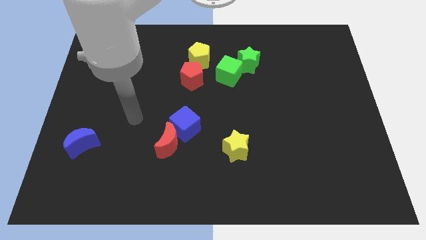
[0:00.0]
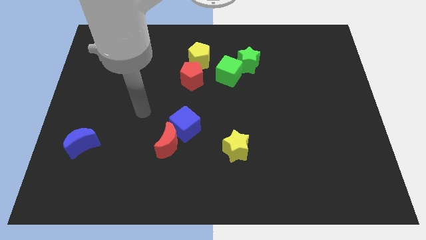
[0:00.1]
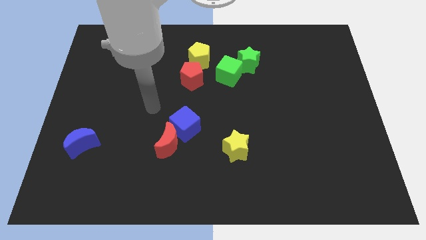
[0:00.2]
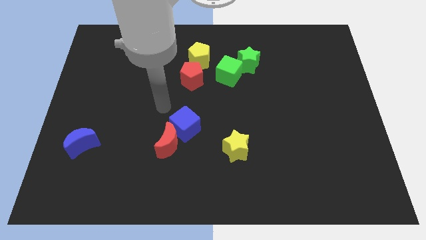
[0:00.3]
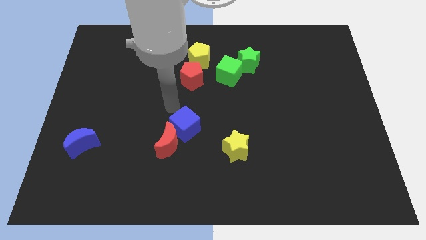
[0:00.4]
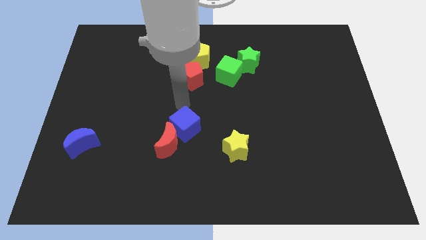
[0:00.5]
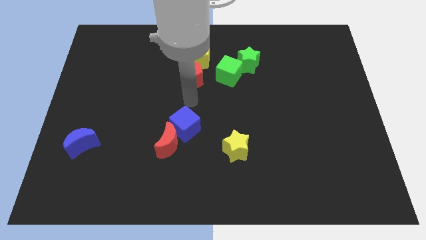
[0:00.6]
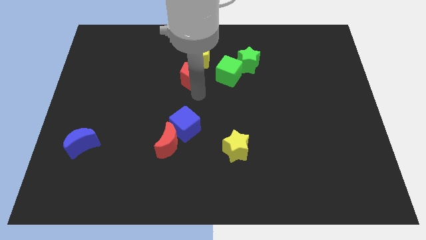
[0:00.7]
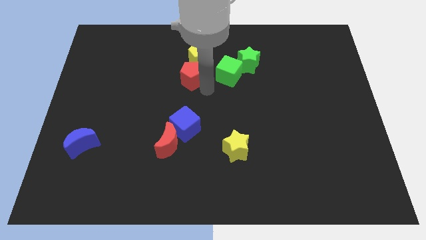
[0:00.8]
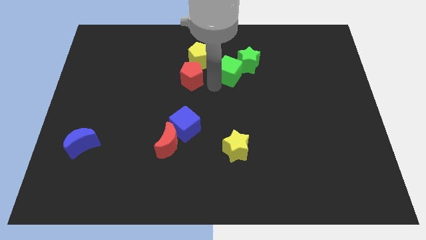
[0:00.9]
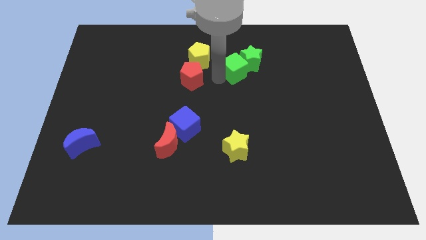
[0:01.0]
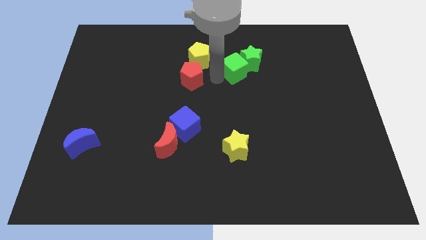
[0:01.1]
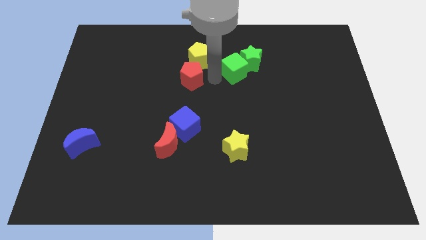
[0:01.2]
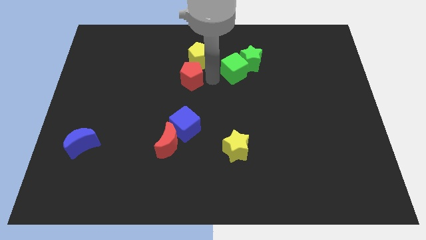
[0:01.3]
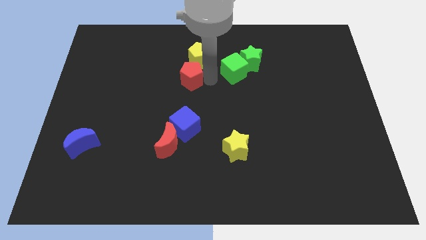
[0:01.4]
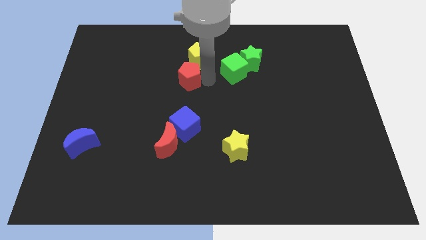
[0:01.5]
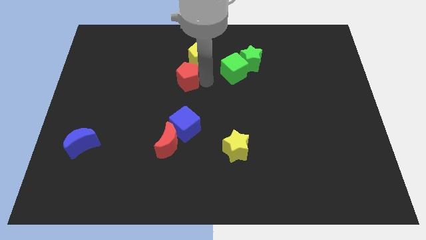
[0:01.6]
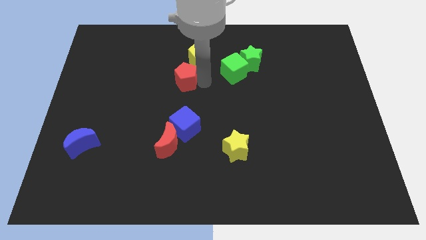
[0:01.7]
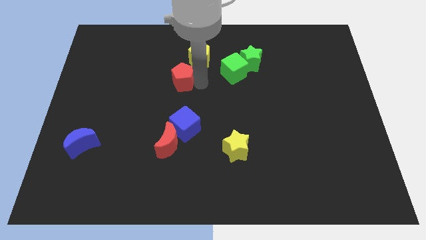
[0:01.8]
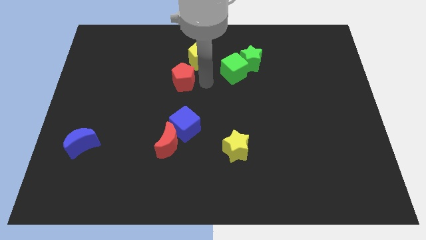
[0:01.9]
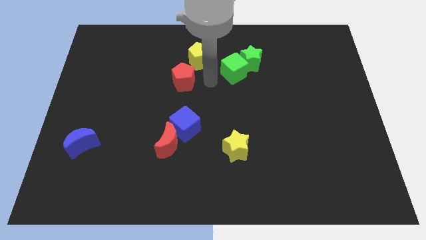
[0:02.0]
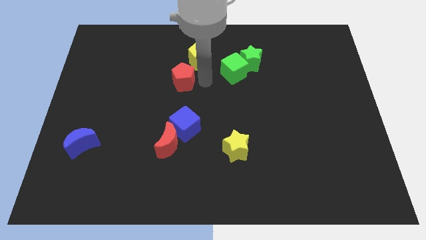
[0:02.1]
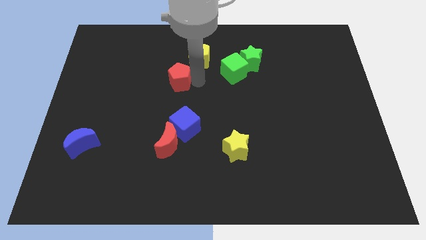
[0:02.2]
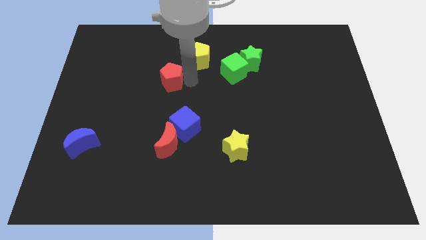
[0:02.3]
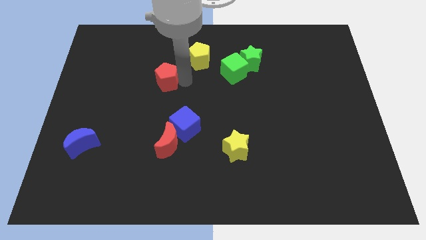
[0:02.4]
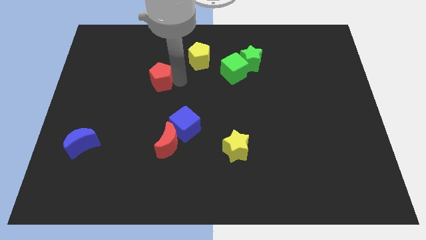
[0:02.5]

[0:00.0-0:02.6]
push the red pentagon a little bit left

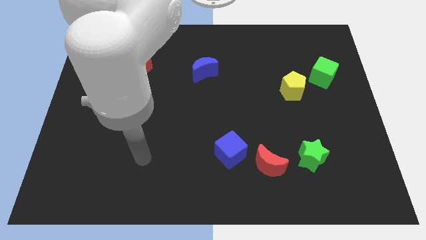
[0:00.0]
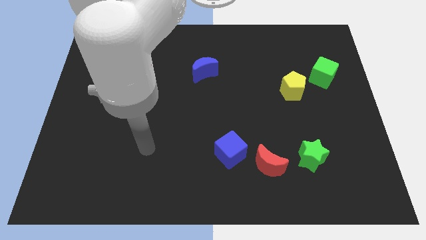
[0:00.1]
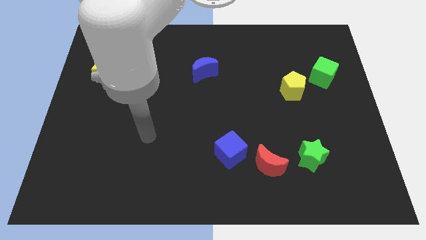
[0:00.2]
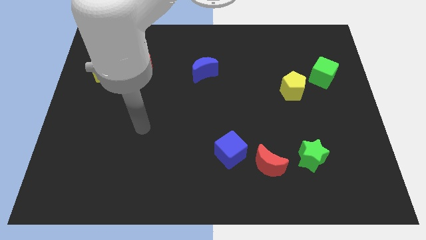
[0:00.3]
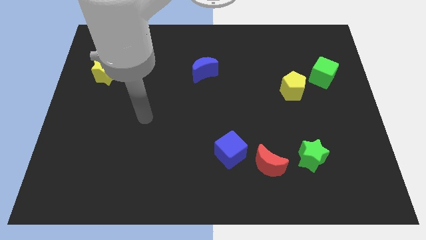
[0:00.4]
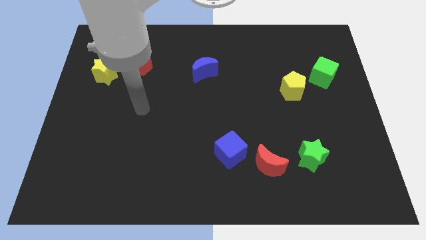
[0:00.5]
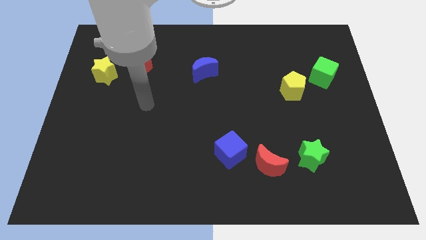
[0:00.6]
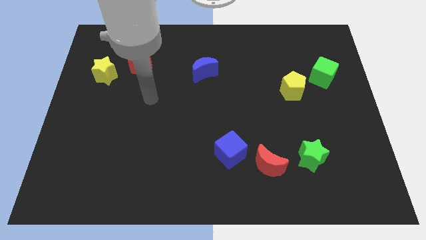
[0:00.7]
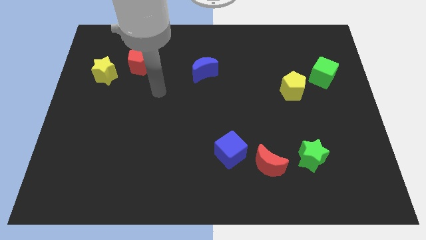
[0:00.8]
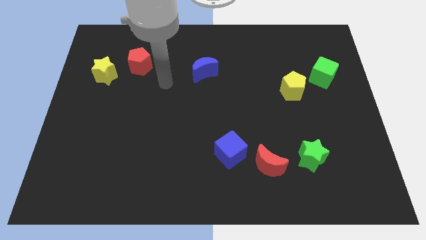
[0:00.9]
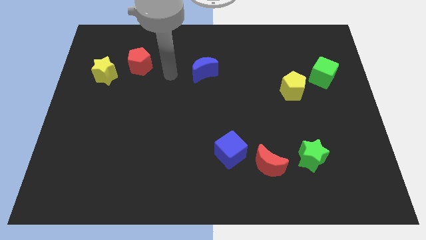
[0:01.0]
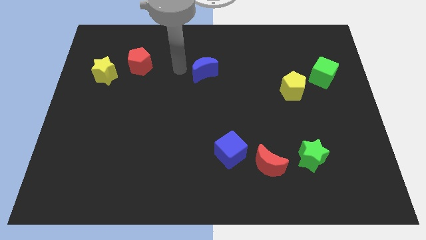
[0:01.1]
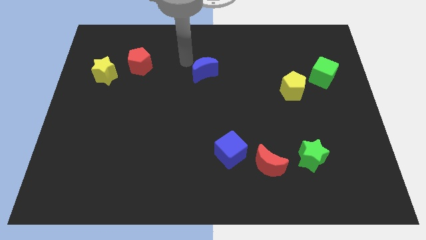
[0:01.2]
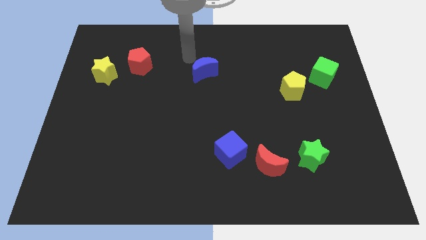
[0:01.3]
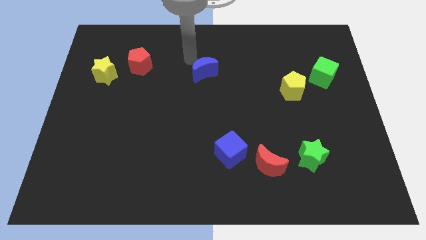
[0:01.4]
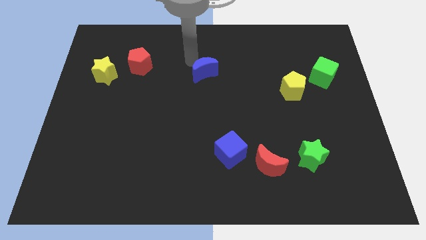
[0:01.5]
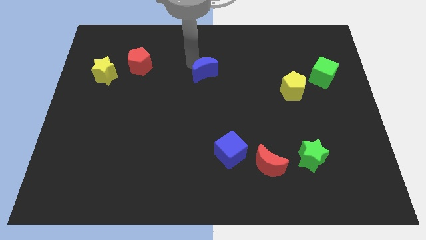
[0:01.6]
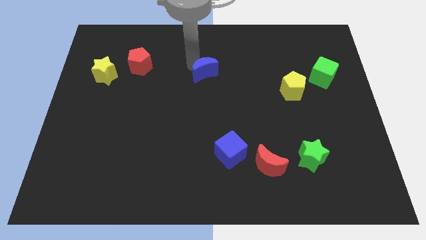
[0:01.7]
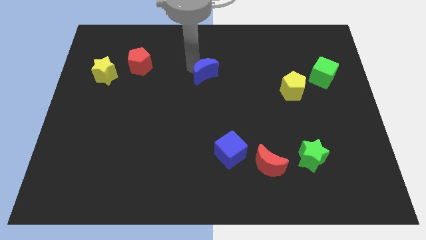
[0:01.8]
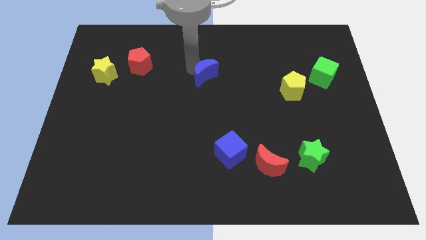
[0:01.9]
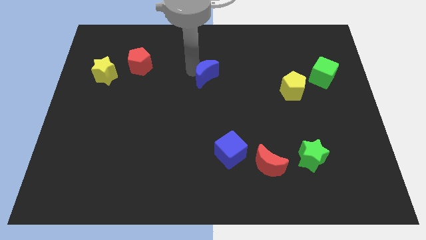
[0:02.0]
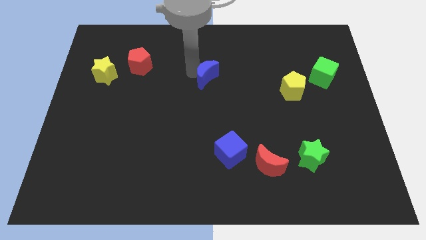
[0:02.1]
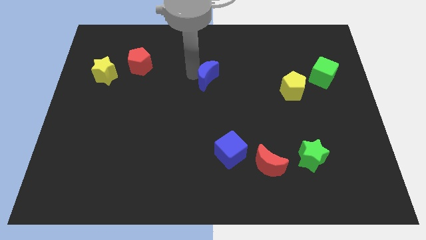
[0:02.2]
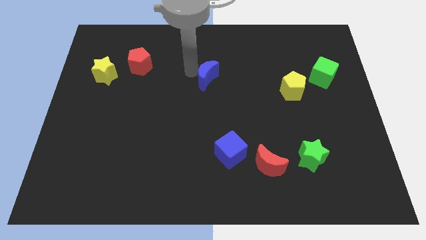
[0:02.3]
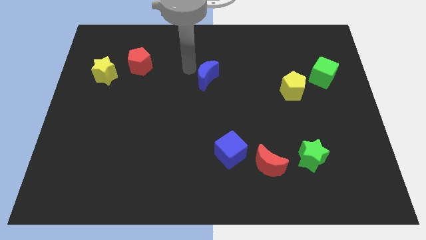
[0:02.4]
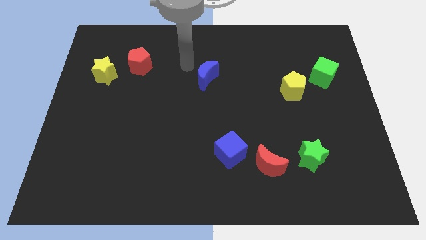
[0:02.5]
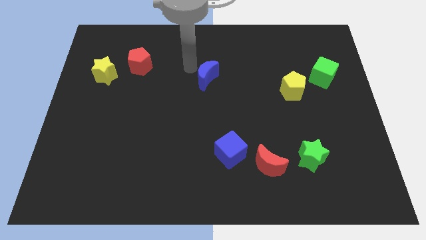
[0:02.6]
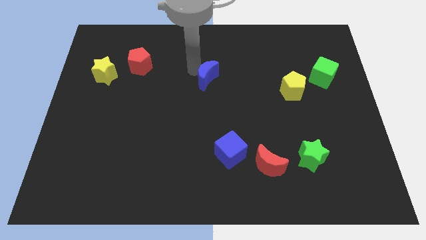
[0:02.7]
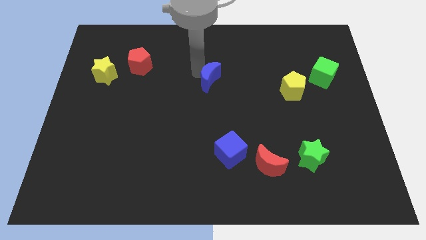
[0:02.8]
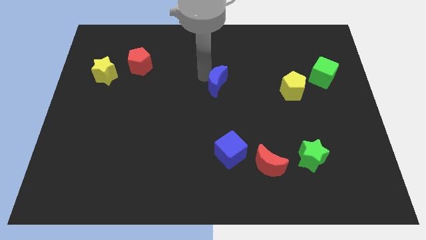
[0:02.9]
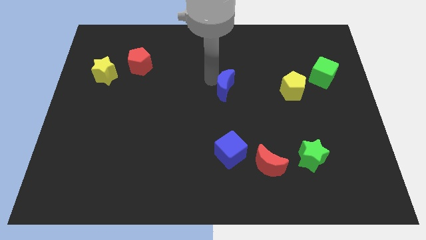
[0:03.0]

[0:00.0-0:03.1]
slide the blue moon a little bit down and then to the right

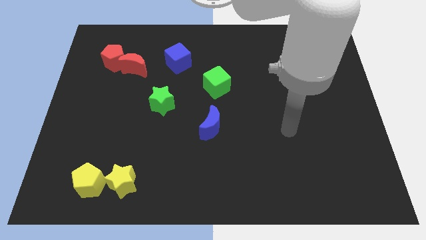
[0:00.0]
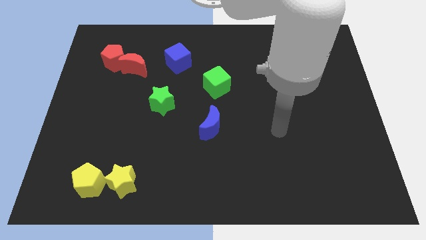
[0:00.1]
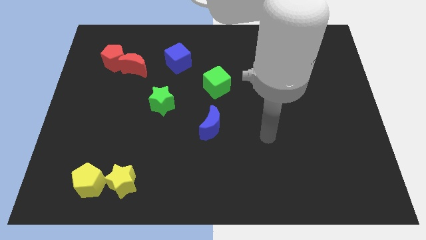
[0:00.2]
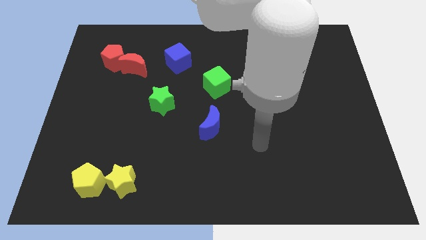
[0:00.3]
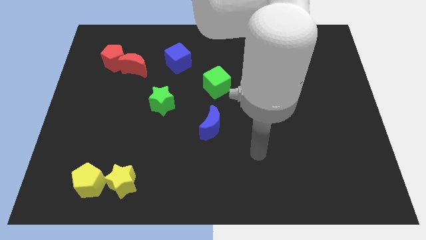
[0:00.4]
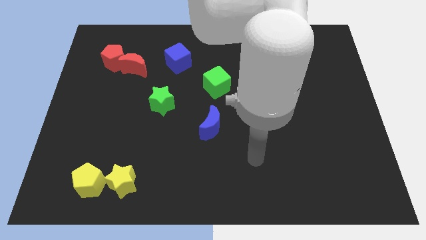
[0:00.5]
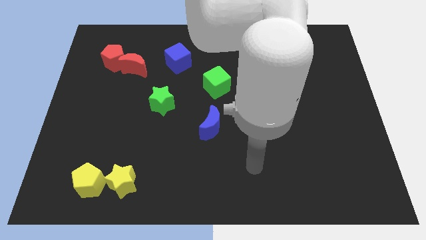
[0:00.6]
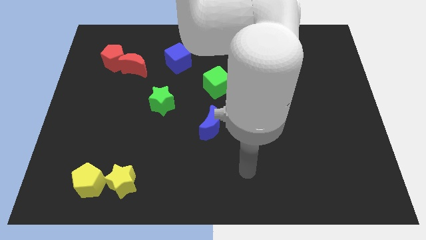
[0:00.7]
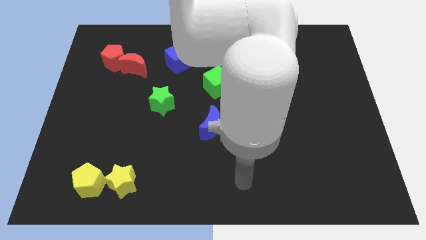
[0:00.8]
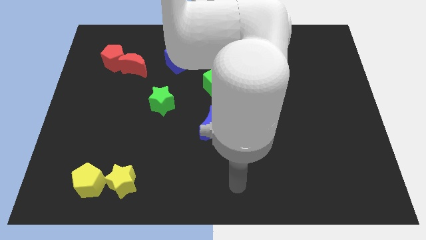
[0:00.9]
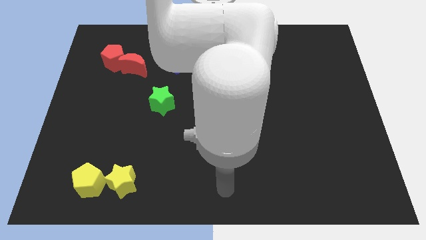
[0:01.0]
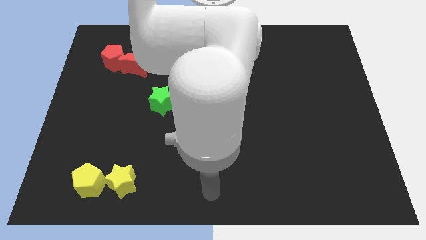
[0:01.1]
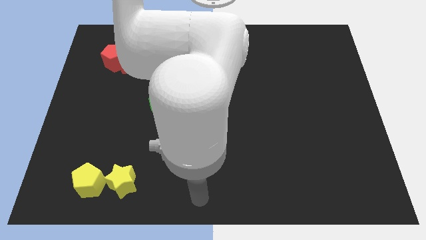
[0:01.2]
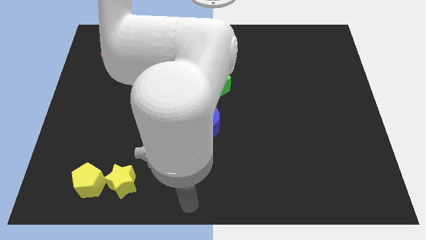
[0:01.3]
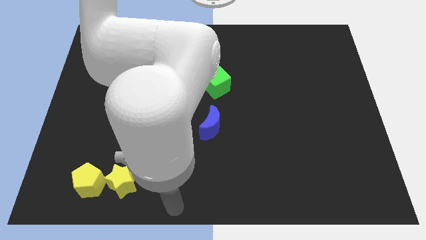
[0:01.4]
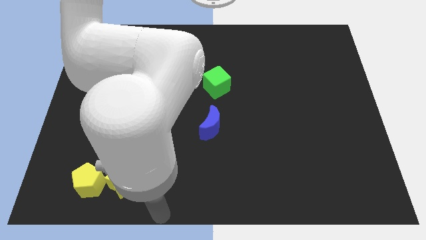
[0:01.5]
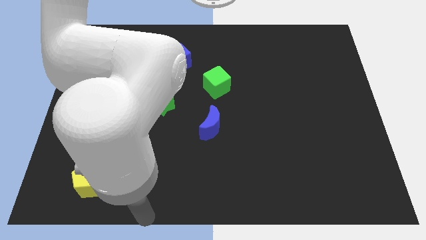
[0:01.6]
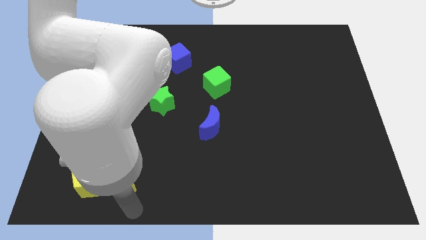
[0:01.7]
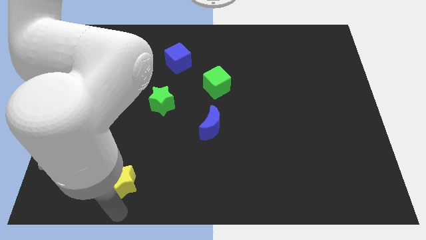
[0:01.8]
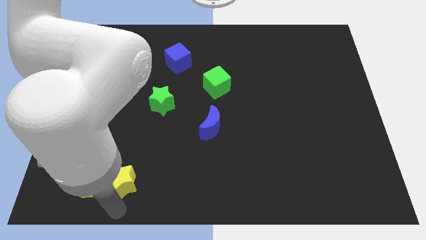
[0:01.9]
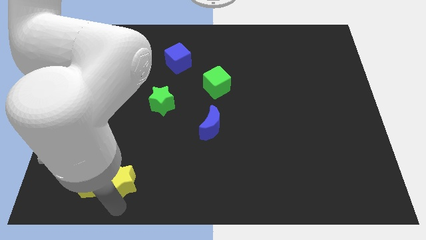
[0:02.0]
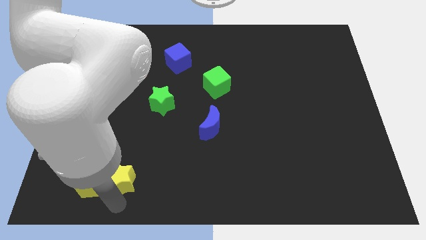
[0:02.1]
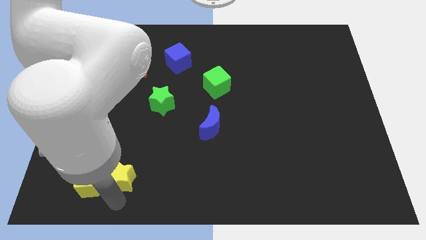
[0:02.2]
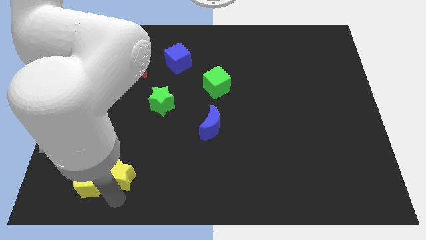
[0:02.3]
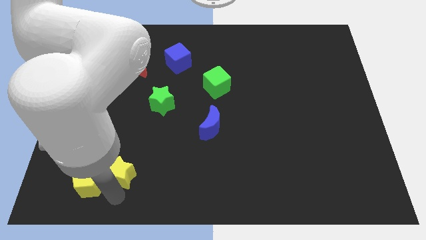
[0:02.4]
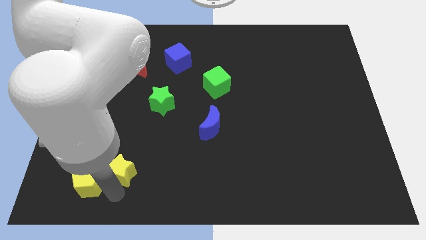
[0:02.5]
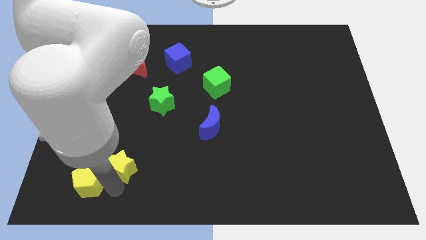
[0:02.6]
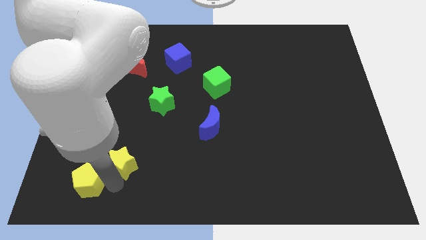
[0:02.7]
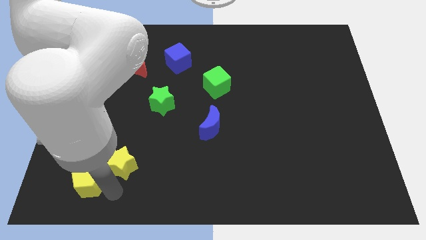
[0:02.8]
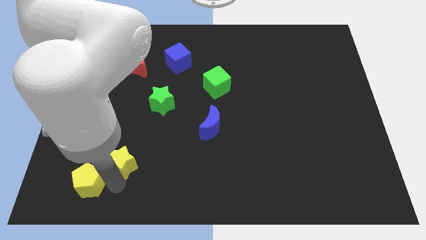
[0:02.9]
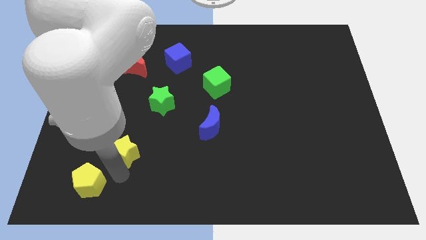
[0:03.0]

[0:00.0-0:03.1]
slide the yellow star a little bit up
